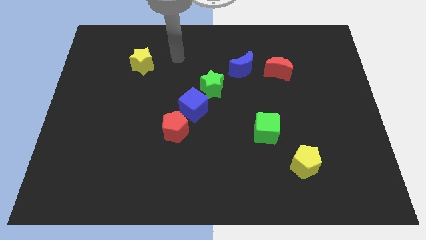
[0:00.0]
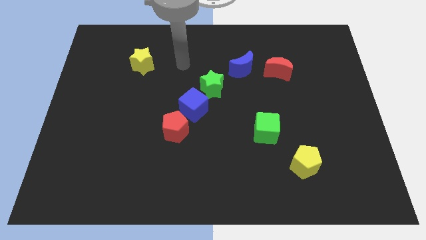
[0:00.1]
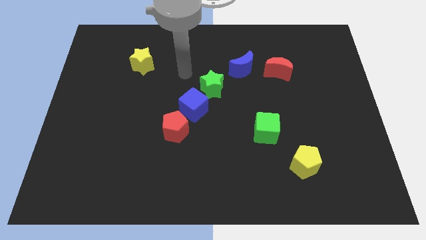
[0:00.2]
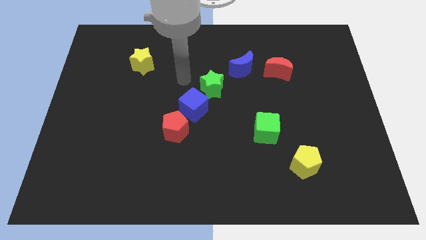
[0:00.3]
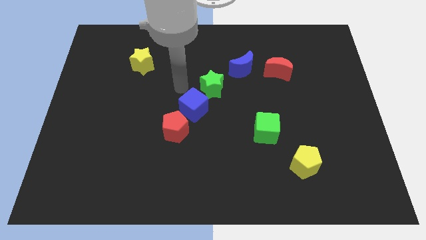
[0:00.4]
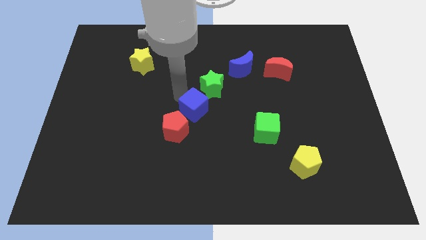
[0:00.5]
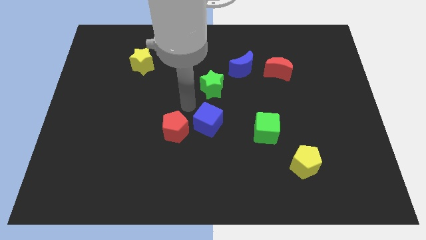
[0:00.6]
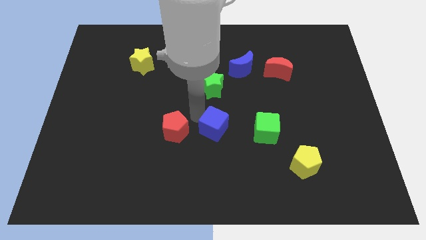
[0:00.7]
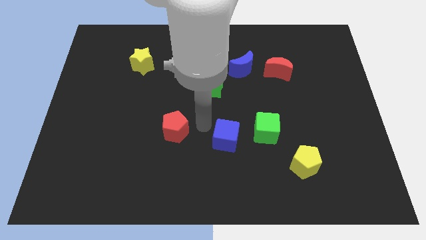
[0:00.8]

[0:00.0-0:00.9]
move the red pentagon away from the blue cube

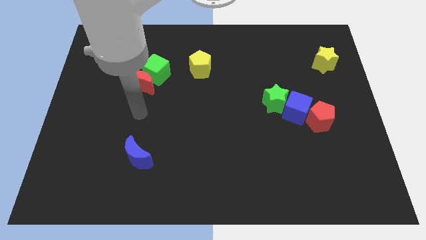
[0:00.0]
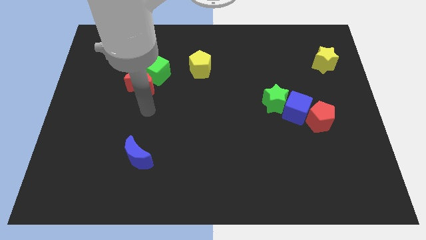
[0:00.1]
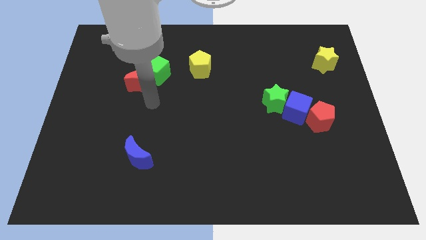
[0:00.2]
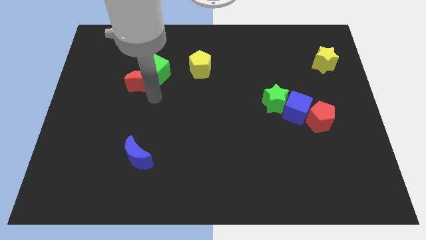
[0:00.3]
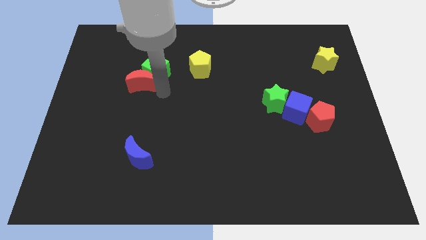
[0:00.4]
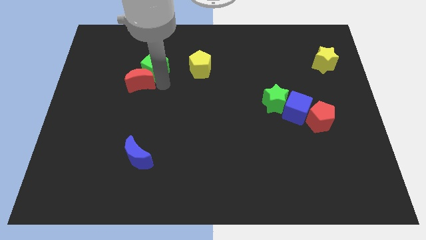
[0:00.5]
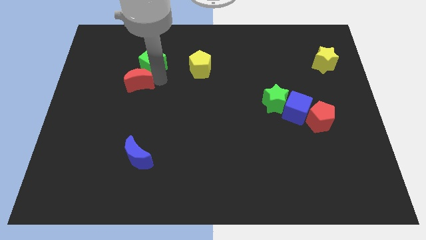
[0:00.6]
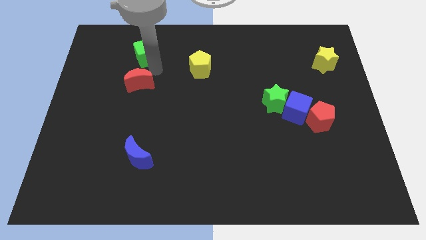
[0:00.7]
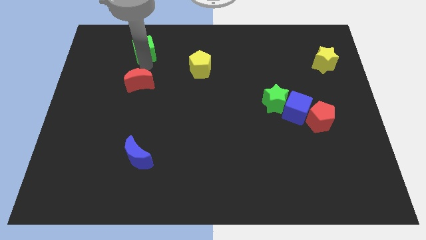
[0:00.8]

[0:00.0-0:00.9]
move the red moon away from the green cube

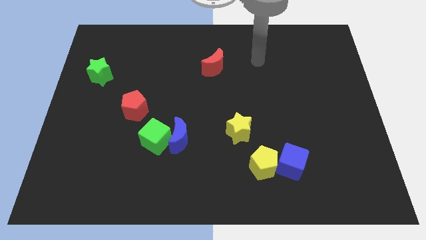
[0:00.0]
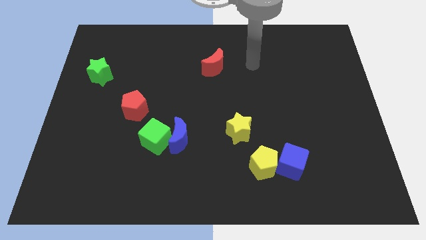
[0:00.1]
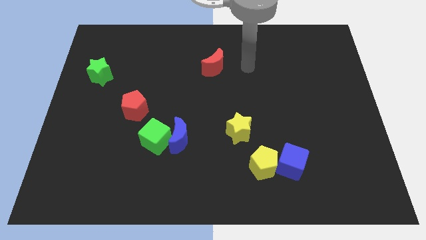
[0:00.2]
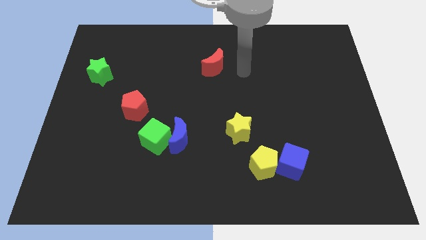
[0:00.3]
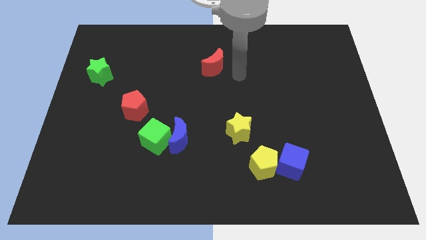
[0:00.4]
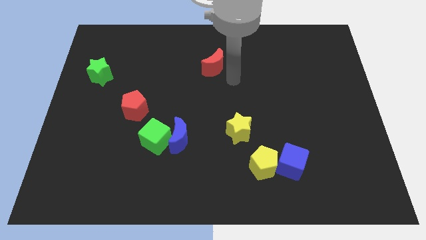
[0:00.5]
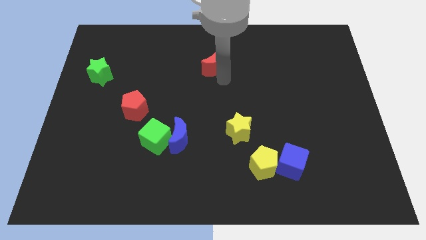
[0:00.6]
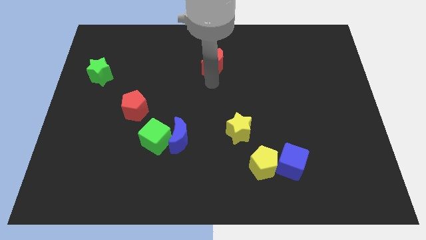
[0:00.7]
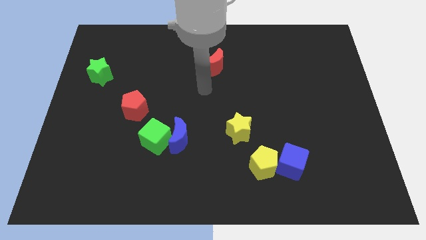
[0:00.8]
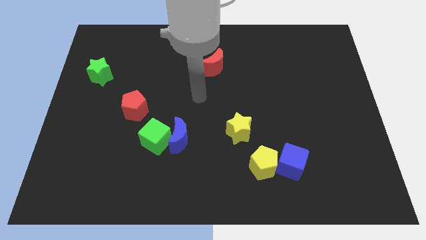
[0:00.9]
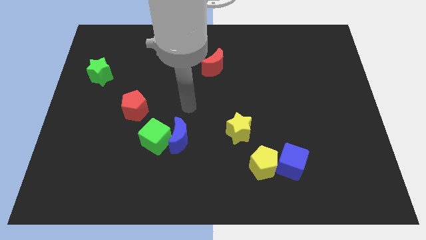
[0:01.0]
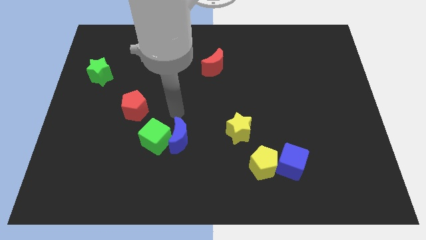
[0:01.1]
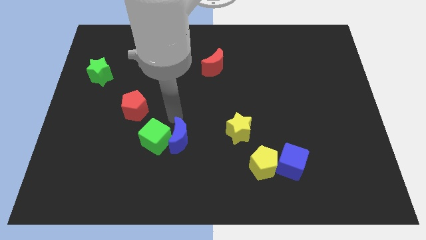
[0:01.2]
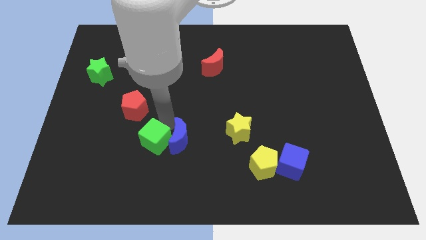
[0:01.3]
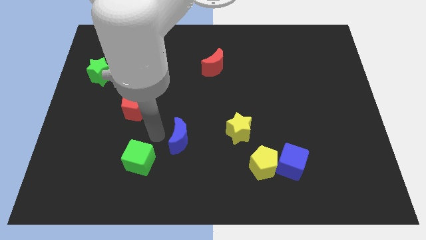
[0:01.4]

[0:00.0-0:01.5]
move the blue moon away from the green cube

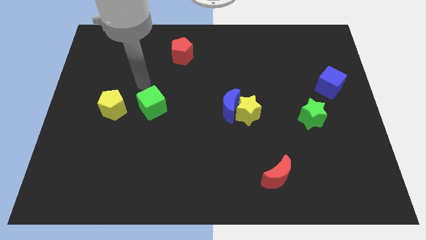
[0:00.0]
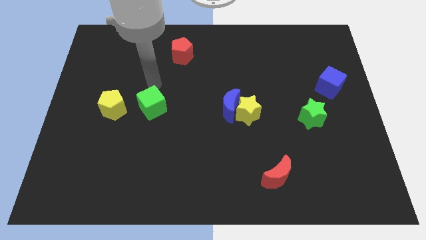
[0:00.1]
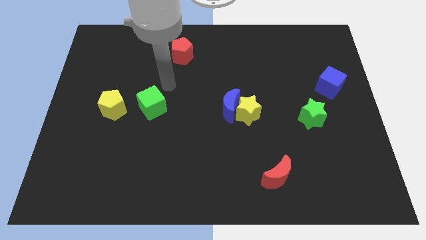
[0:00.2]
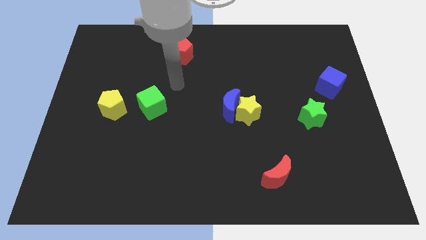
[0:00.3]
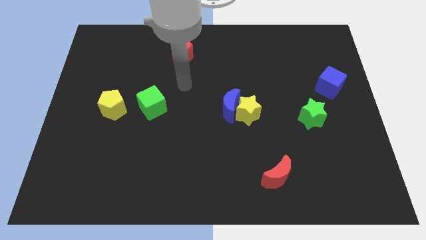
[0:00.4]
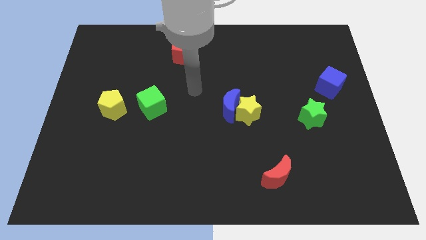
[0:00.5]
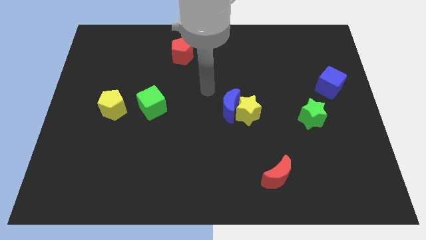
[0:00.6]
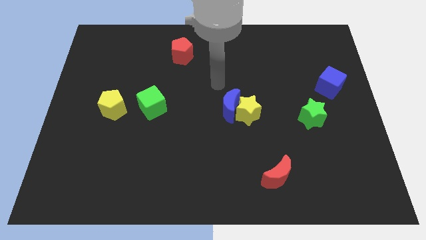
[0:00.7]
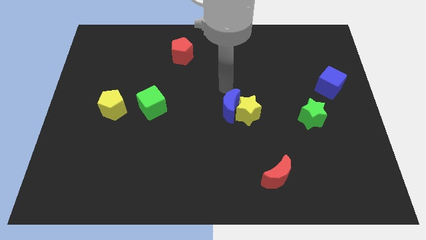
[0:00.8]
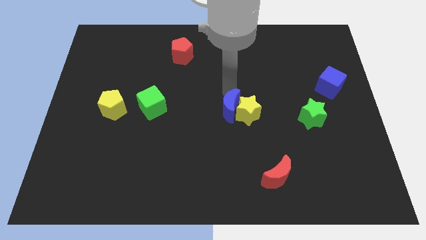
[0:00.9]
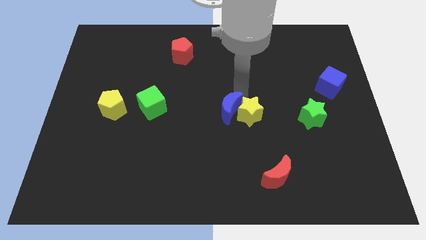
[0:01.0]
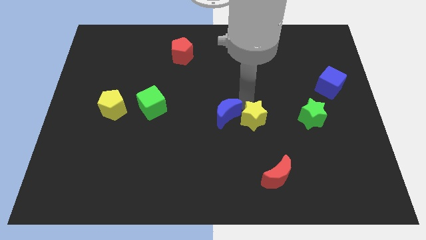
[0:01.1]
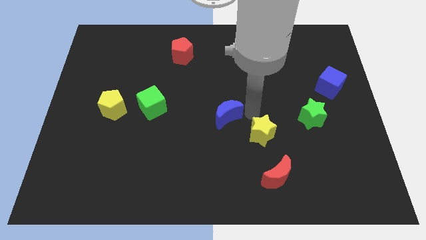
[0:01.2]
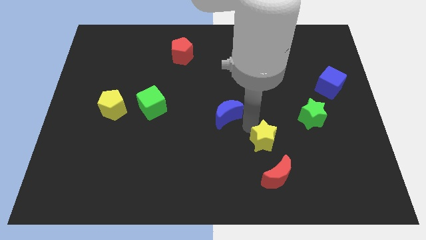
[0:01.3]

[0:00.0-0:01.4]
move the blue moon away from the yellow star

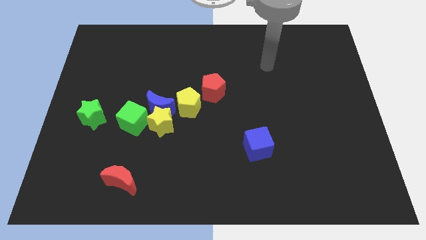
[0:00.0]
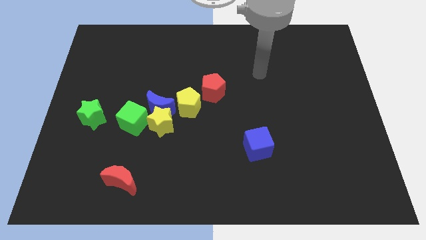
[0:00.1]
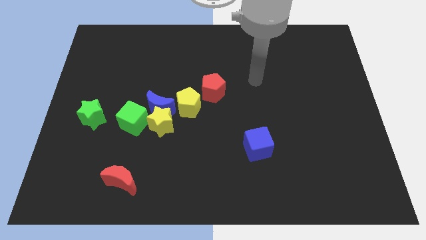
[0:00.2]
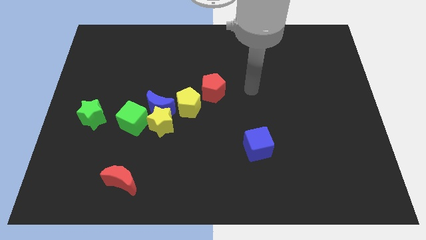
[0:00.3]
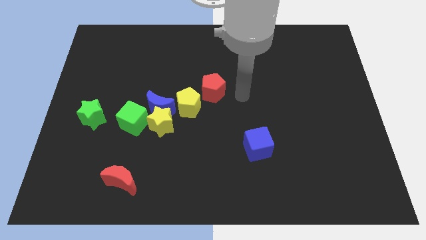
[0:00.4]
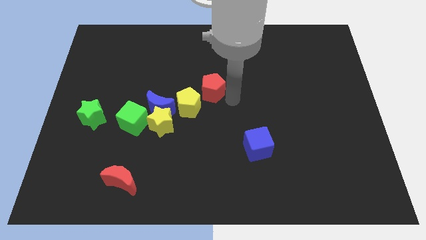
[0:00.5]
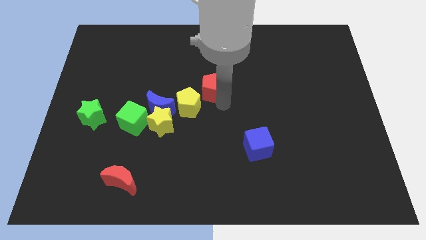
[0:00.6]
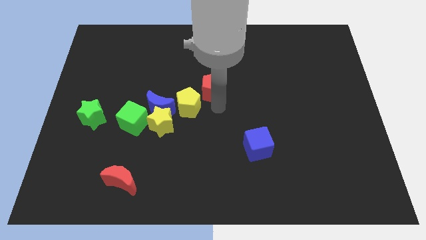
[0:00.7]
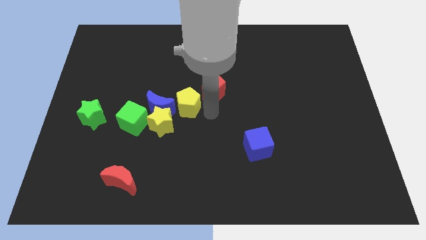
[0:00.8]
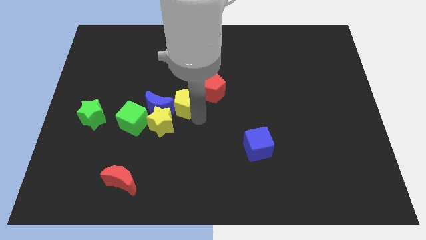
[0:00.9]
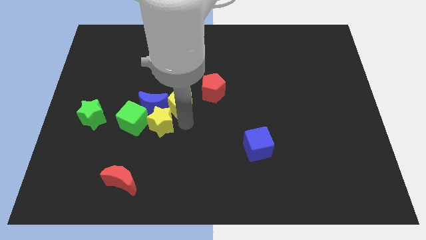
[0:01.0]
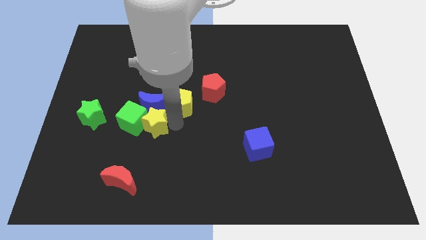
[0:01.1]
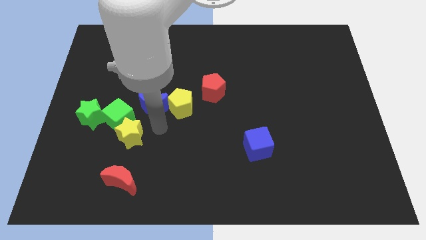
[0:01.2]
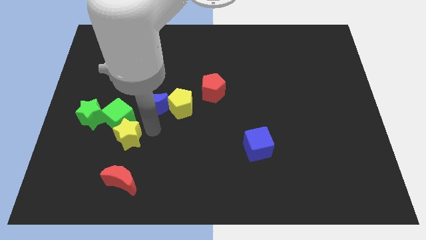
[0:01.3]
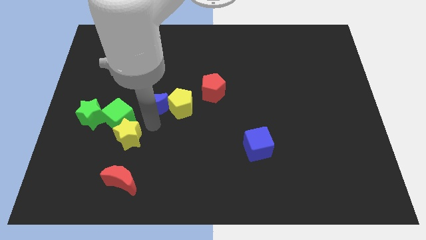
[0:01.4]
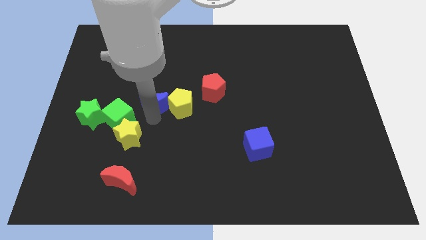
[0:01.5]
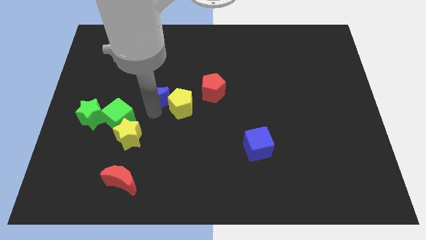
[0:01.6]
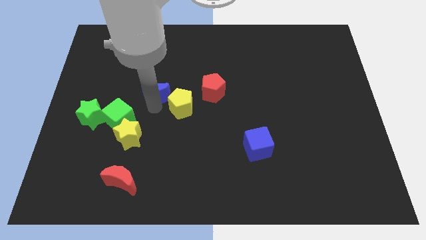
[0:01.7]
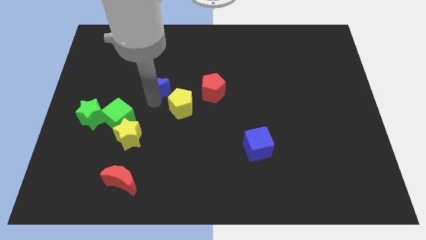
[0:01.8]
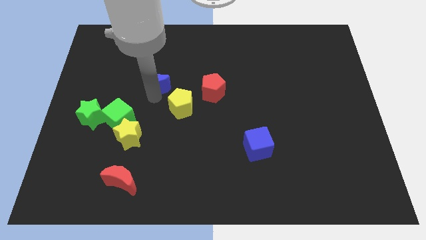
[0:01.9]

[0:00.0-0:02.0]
move the blue moon away from the group of blocks

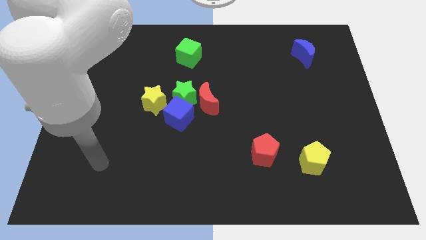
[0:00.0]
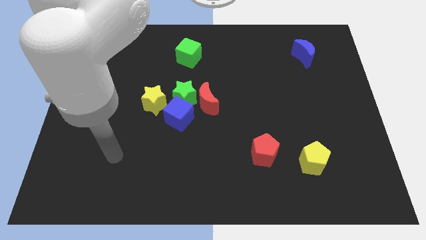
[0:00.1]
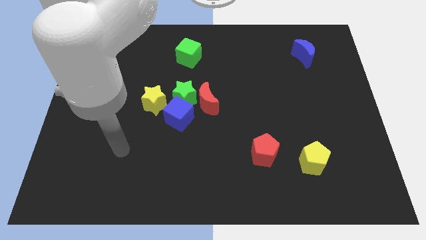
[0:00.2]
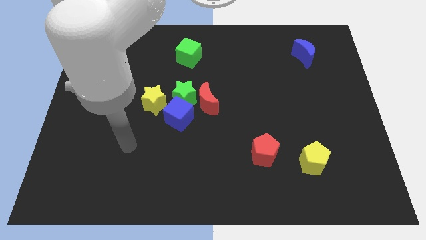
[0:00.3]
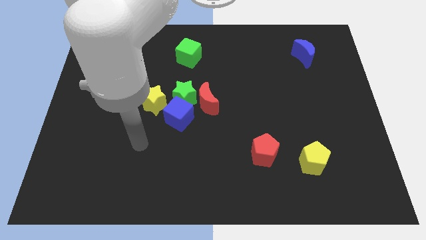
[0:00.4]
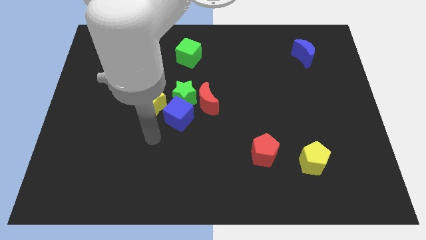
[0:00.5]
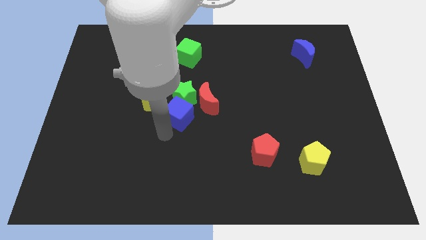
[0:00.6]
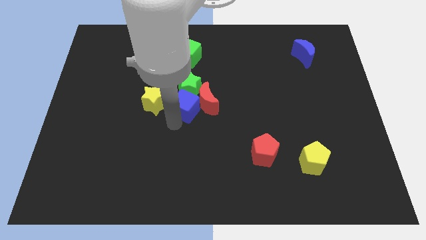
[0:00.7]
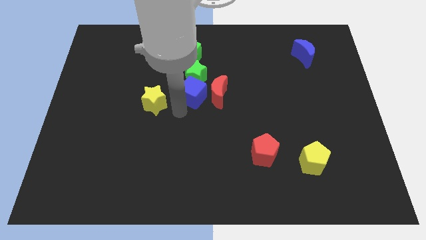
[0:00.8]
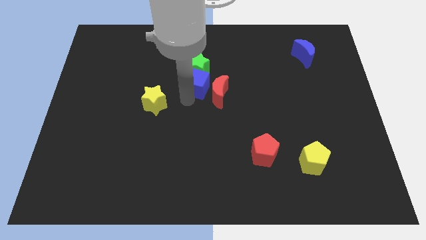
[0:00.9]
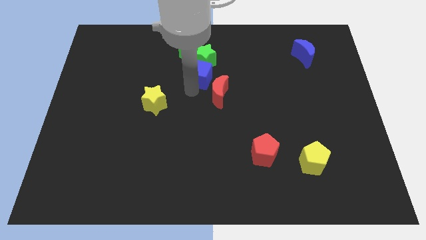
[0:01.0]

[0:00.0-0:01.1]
move the green star away from the blue cube, red moon, and yellow star

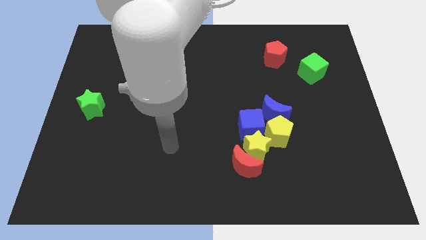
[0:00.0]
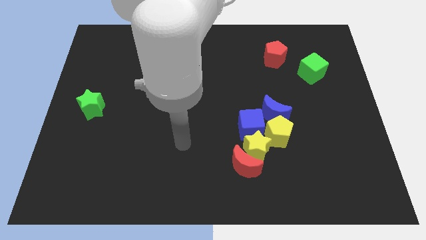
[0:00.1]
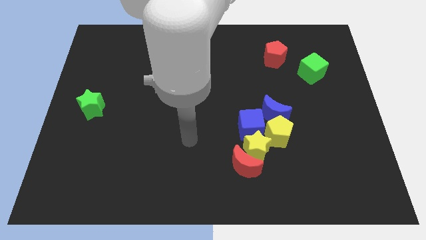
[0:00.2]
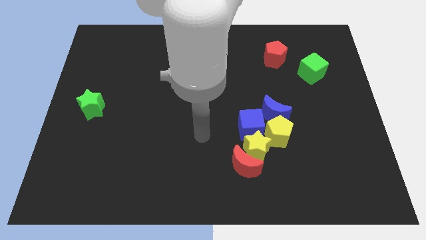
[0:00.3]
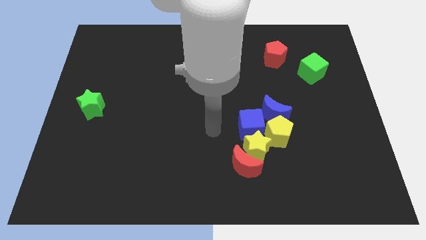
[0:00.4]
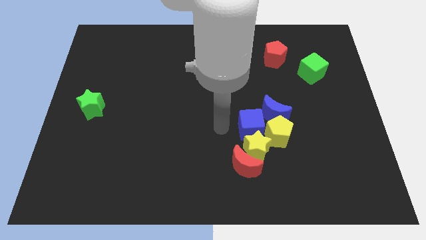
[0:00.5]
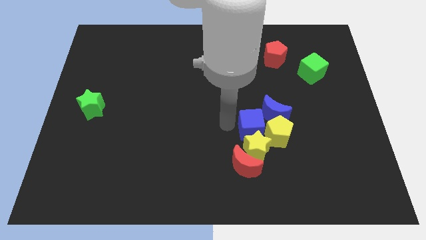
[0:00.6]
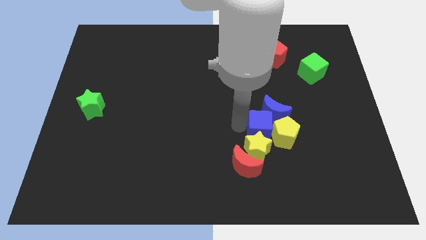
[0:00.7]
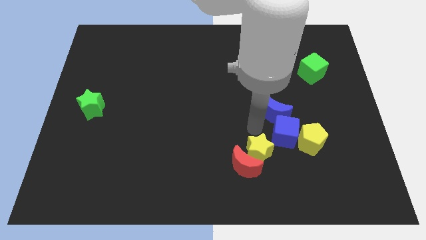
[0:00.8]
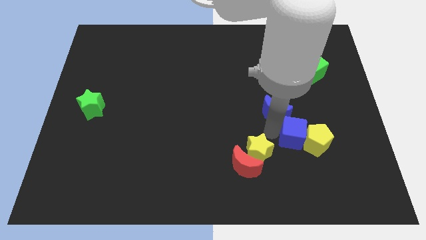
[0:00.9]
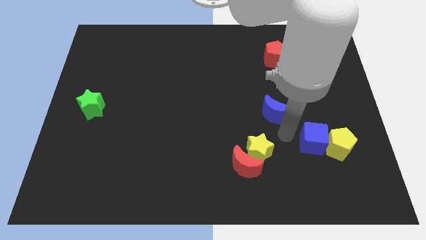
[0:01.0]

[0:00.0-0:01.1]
pull the yellow pentagon apart from the blue moon, blue cube, and yellow star

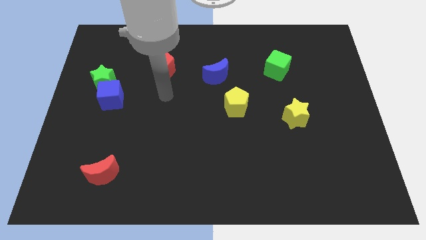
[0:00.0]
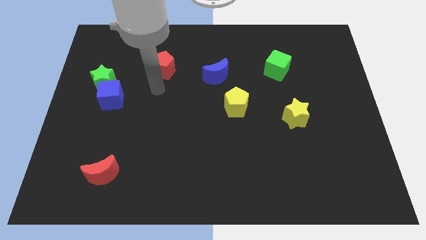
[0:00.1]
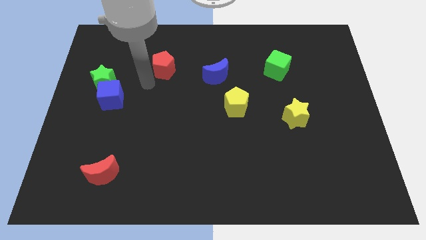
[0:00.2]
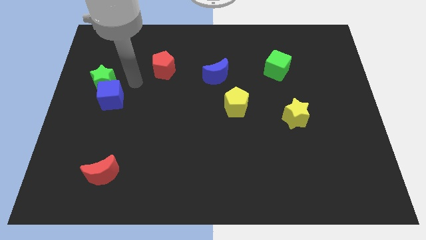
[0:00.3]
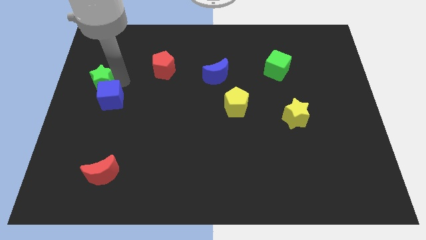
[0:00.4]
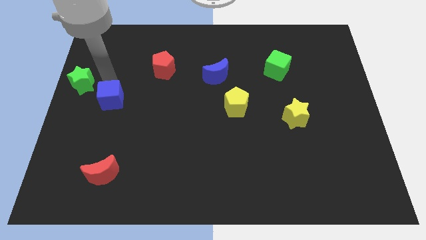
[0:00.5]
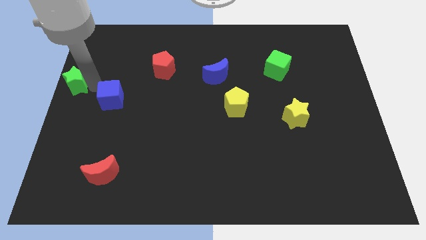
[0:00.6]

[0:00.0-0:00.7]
move the blue cube away from the green star
